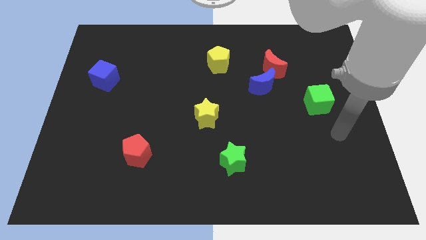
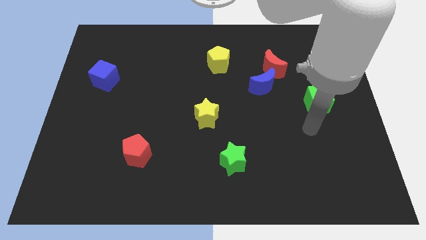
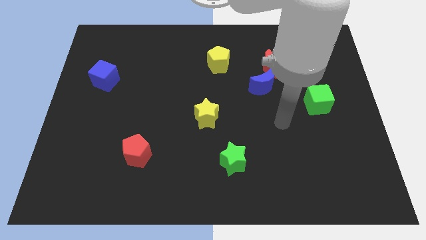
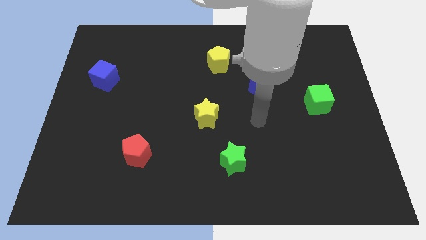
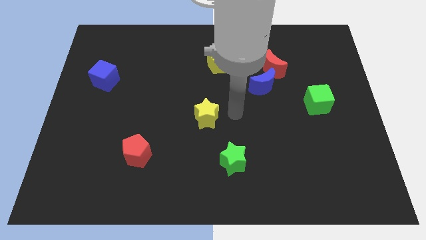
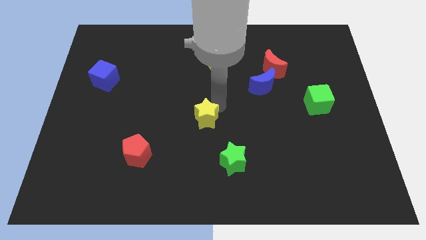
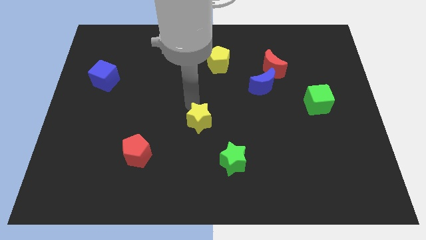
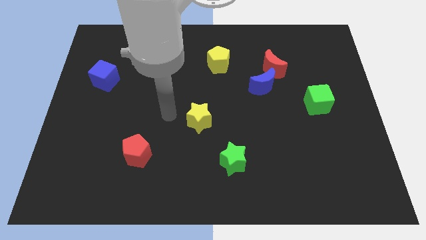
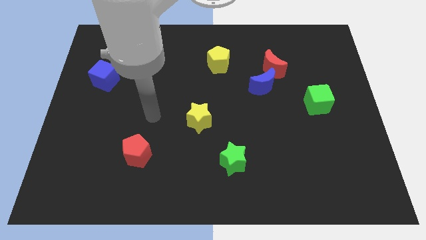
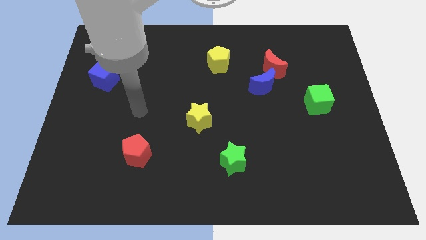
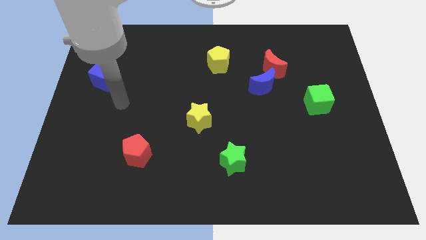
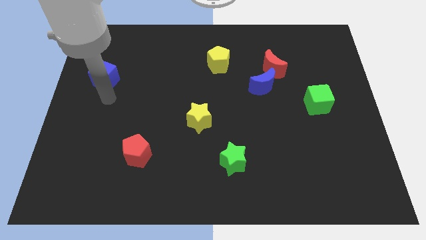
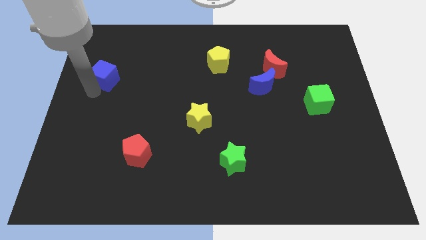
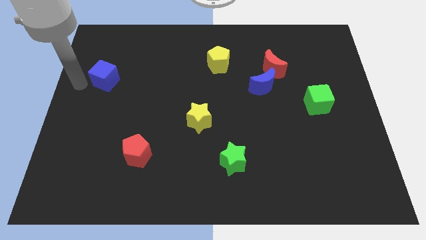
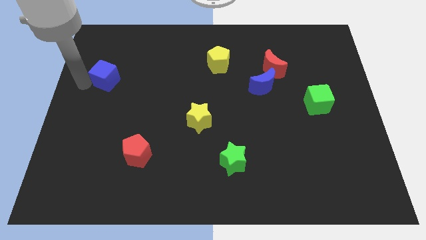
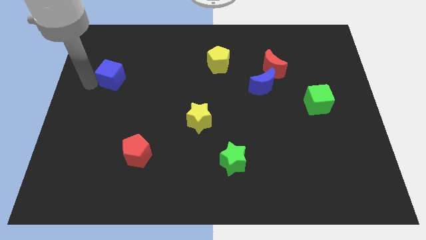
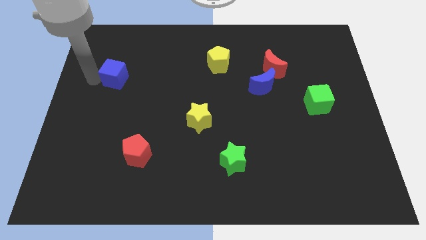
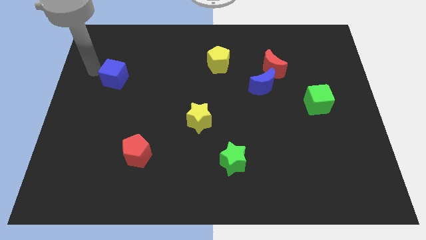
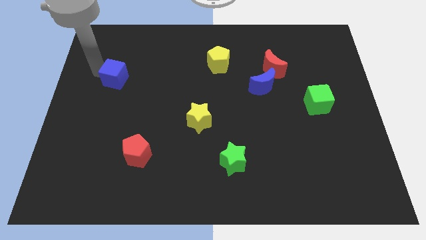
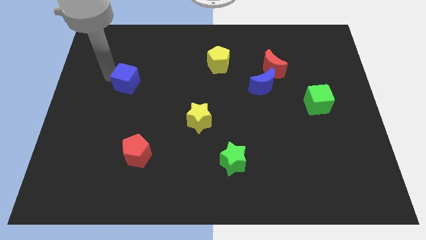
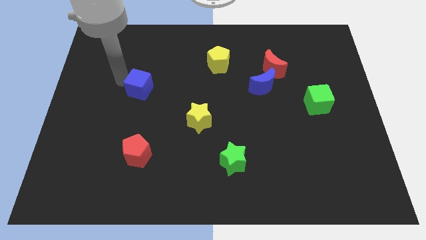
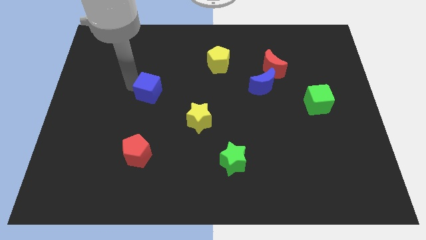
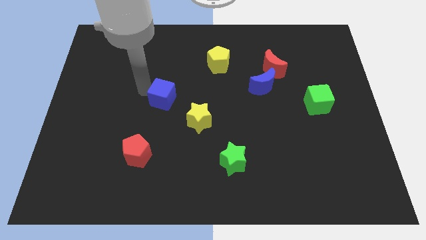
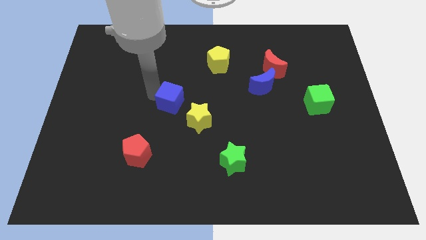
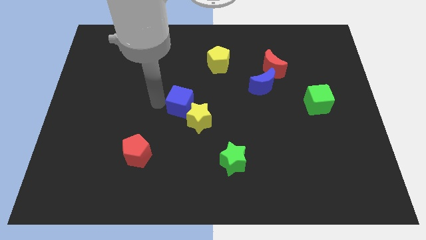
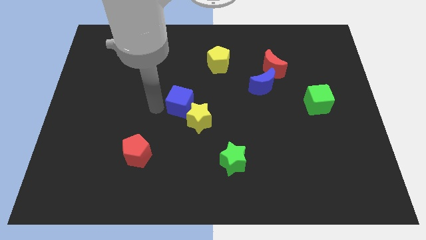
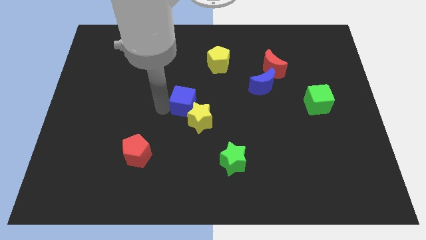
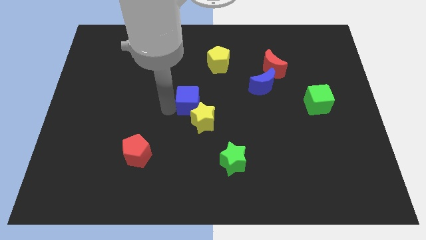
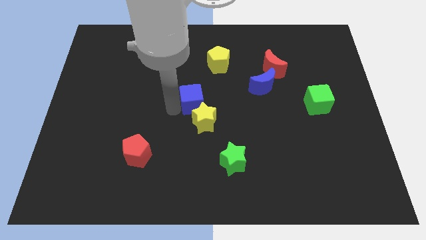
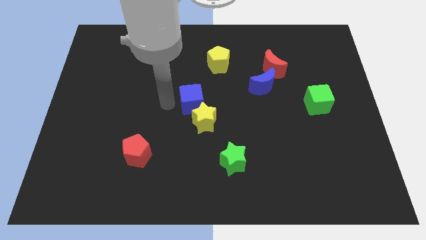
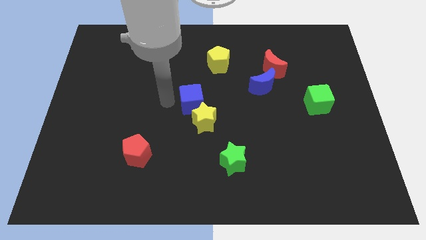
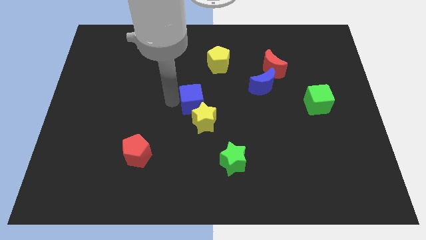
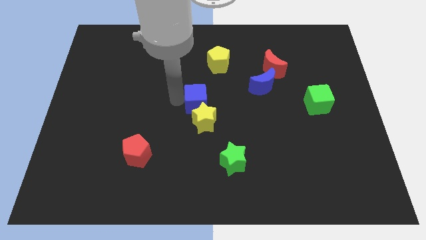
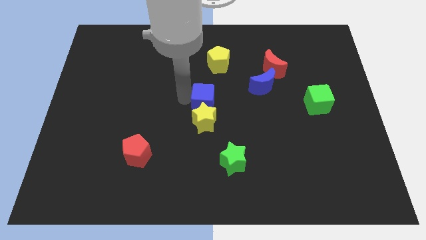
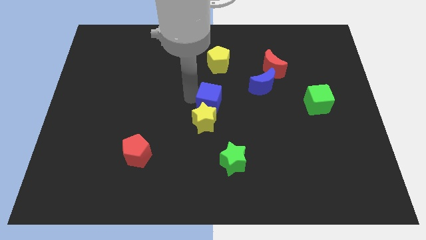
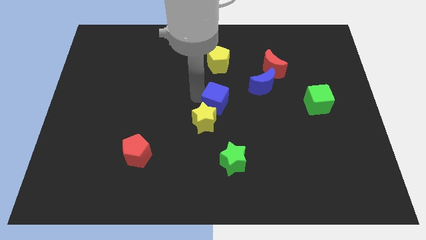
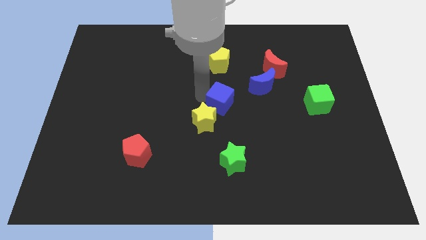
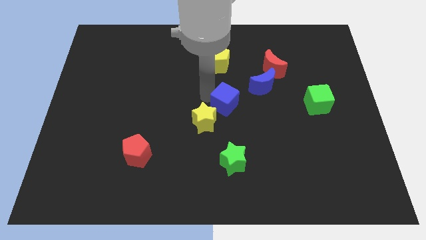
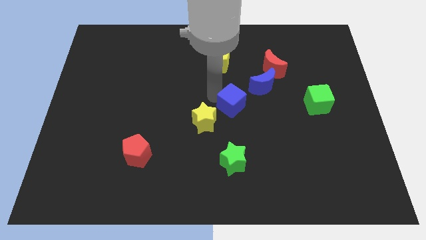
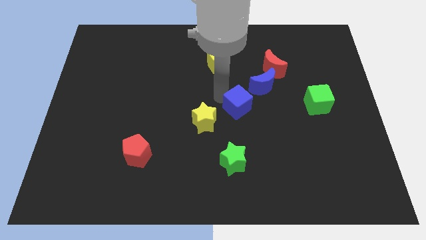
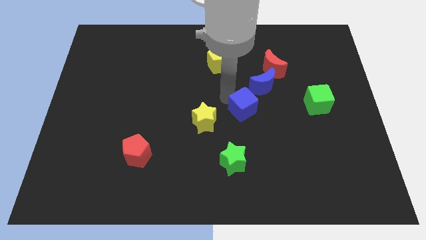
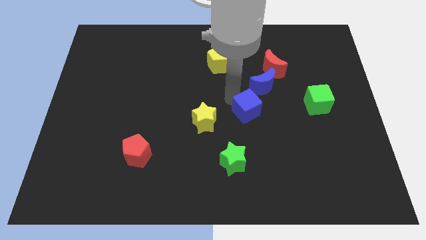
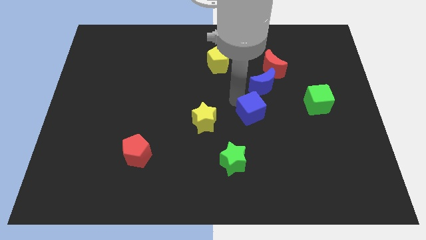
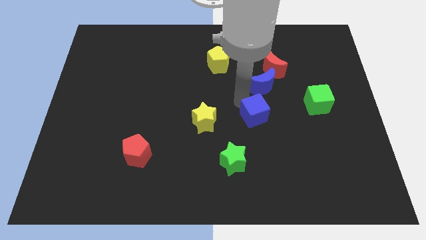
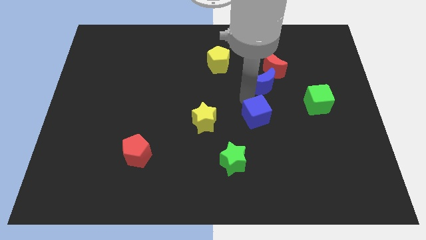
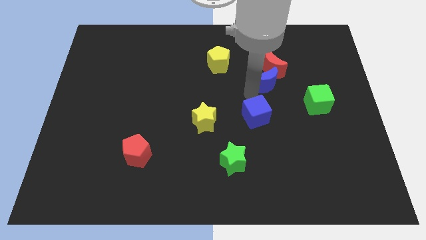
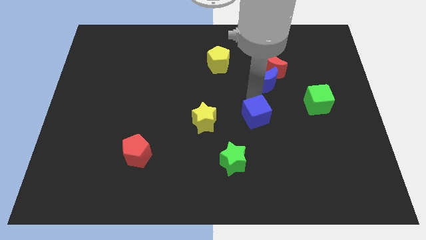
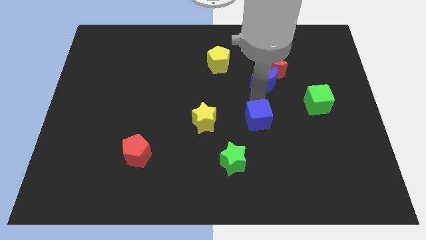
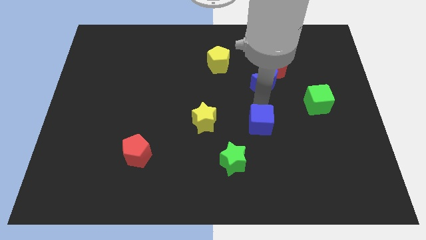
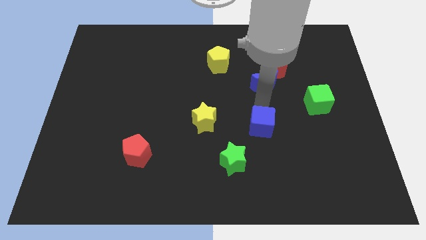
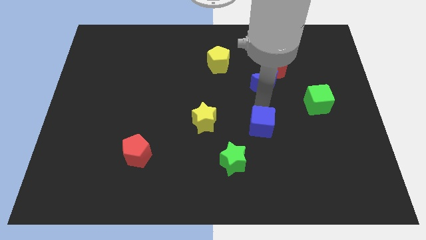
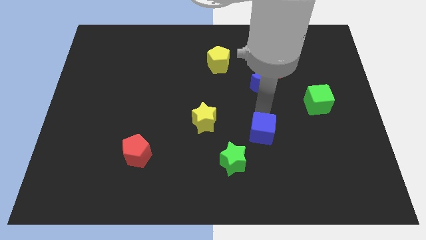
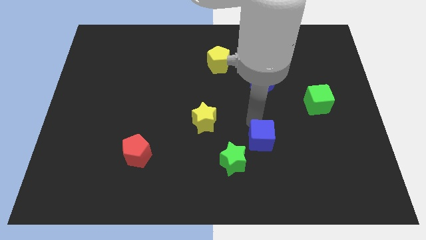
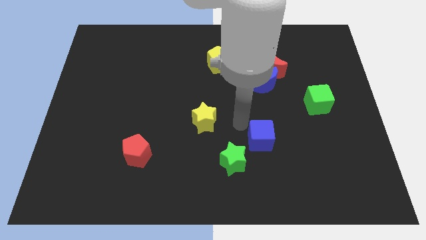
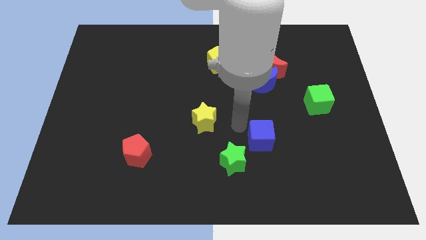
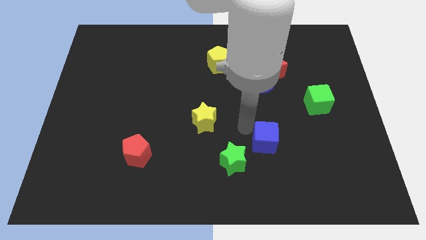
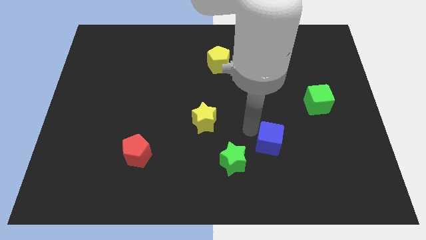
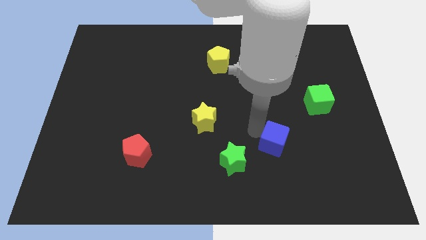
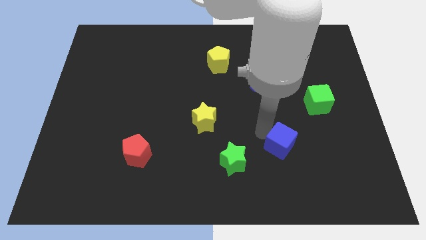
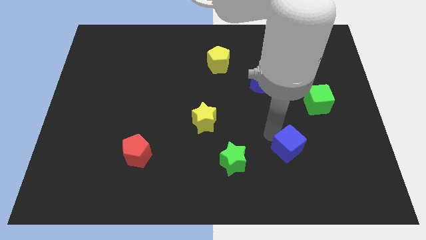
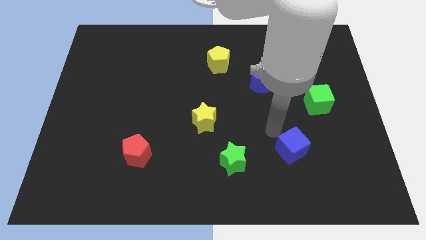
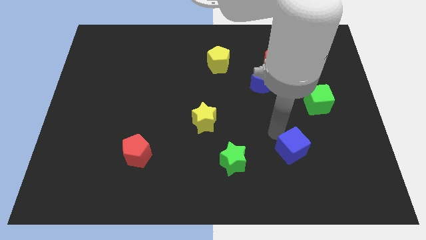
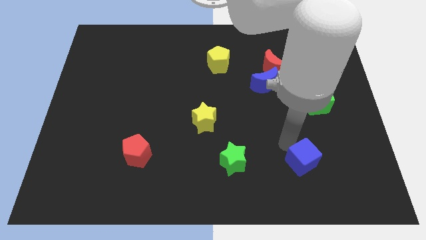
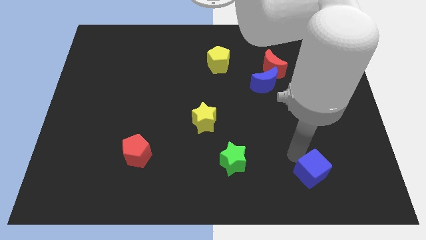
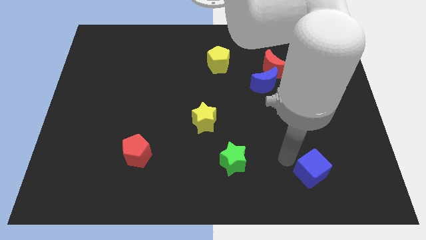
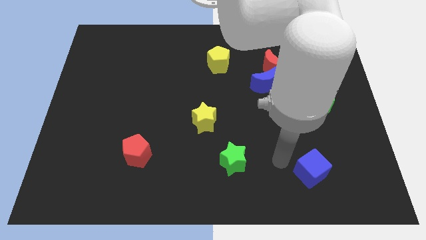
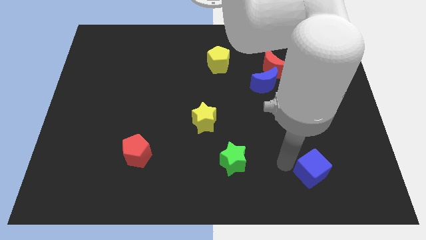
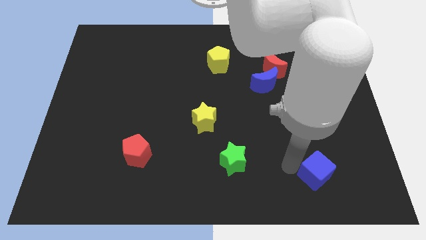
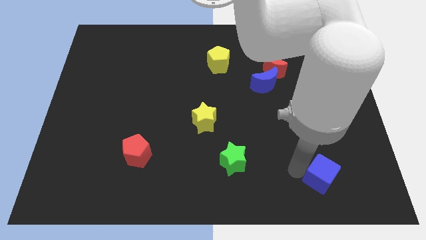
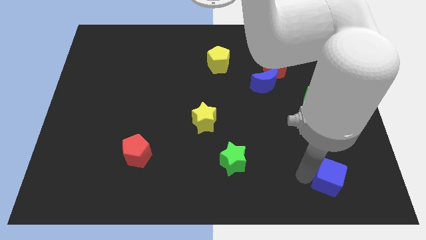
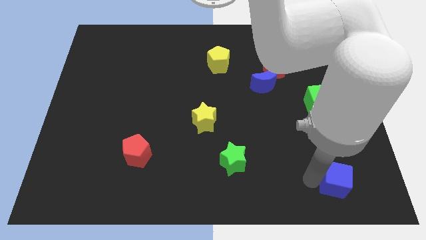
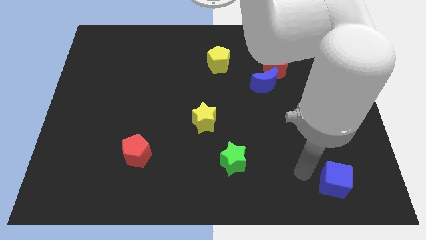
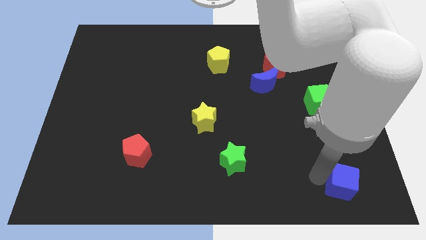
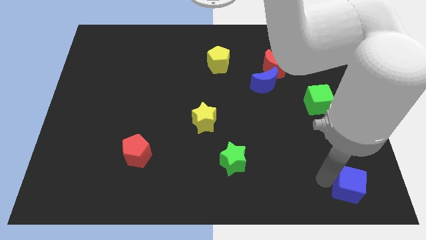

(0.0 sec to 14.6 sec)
put the blue cube to the bottom right corner
